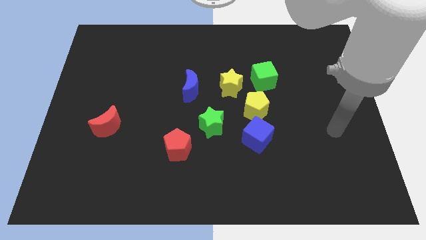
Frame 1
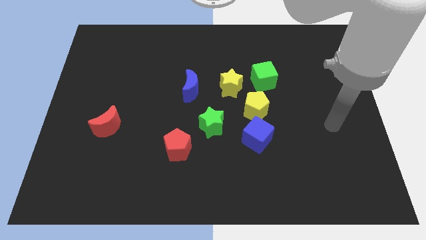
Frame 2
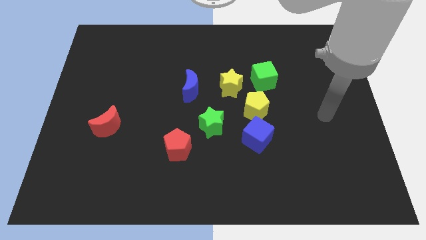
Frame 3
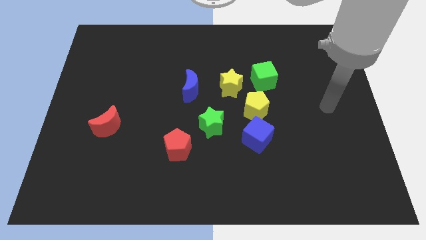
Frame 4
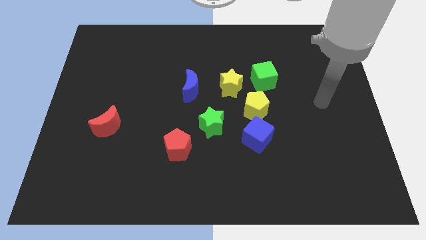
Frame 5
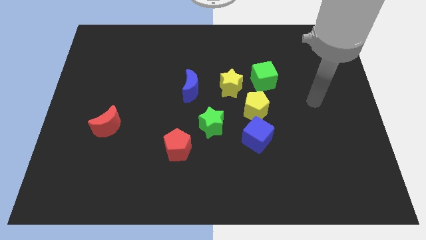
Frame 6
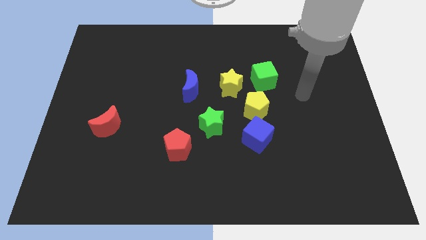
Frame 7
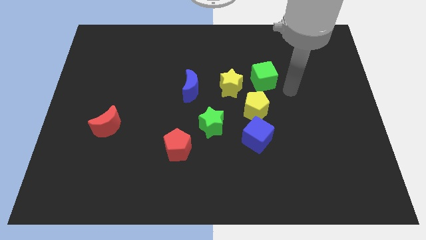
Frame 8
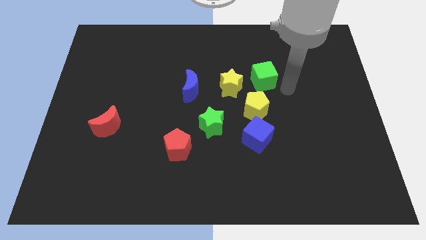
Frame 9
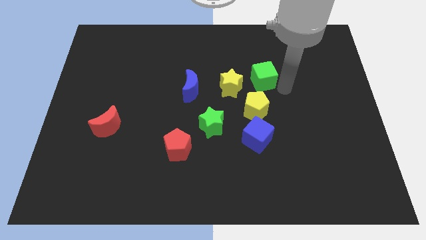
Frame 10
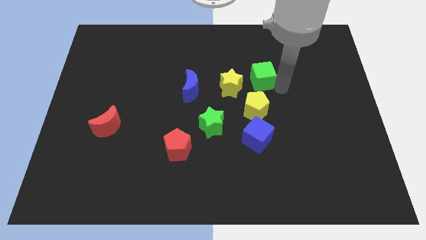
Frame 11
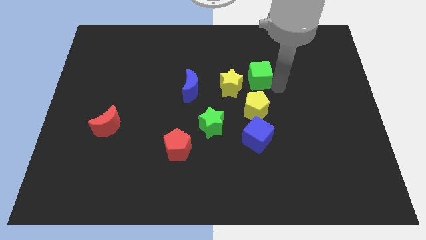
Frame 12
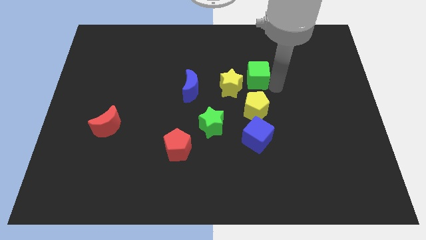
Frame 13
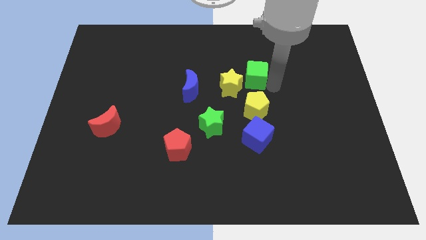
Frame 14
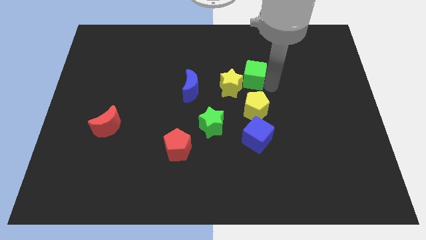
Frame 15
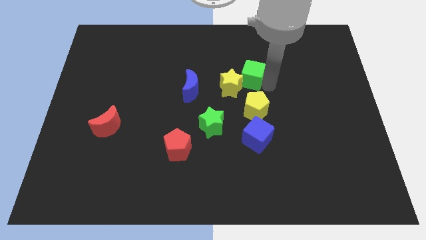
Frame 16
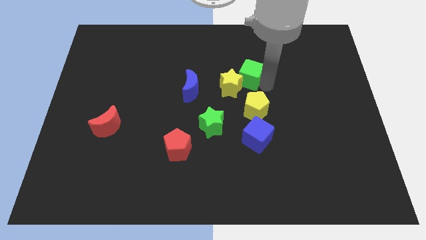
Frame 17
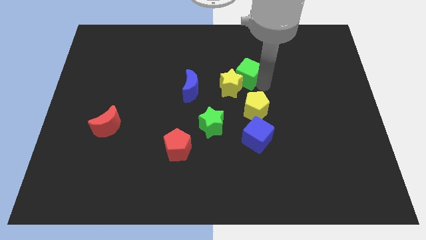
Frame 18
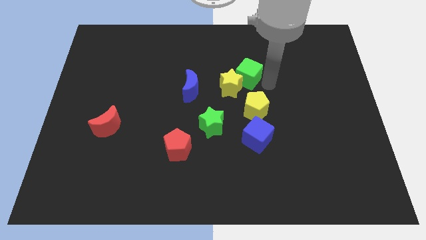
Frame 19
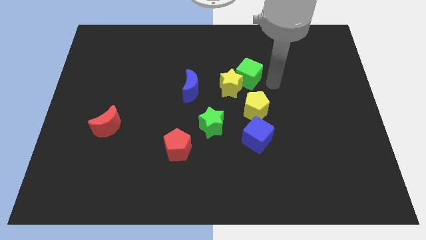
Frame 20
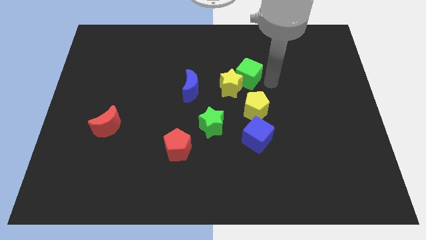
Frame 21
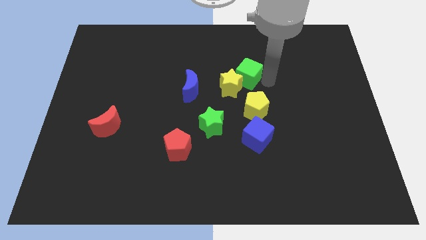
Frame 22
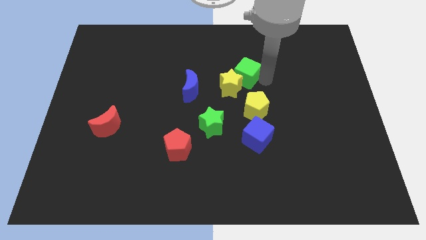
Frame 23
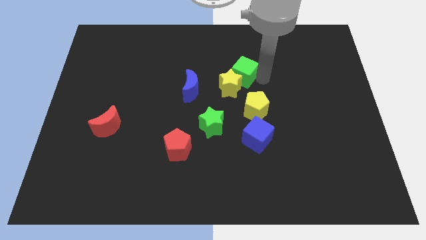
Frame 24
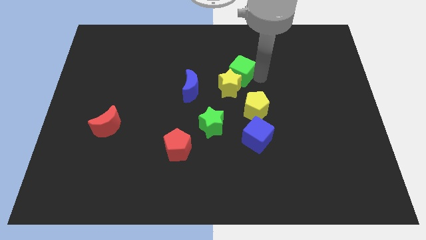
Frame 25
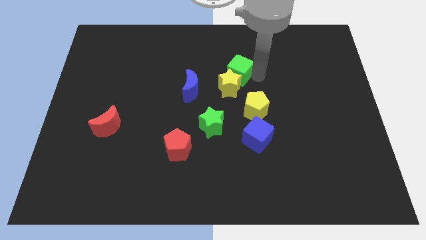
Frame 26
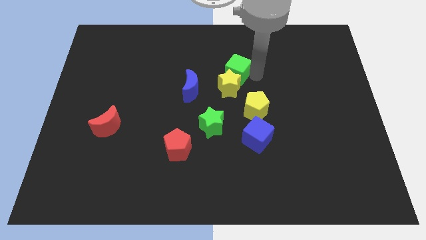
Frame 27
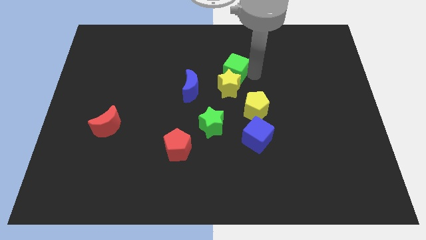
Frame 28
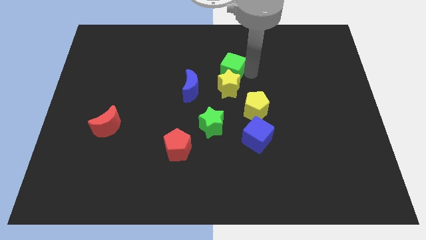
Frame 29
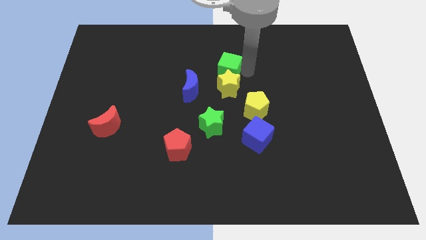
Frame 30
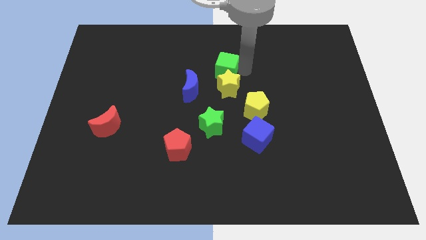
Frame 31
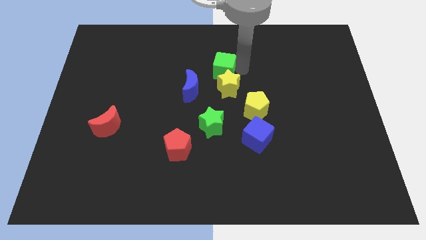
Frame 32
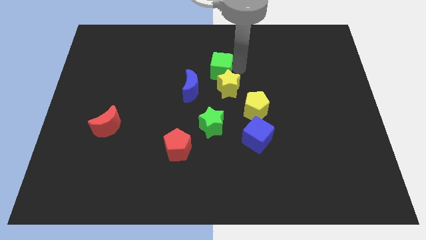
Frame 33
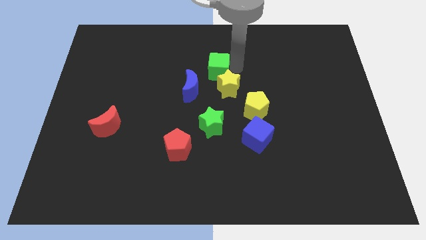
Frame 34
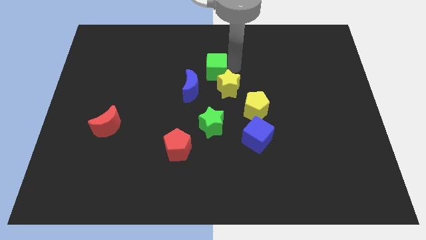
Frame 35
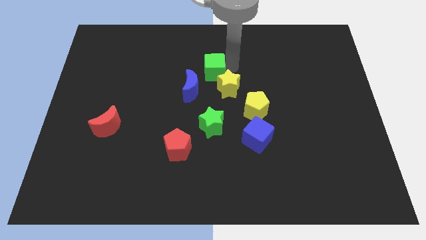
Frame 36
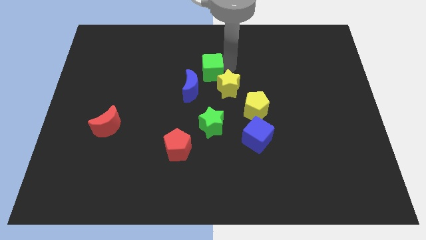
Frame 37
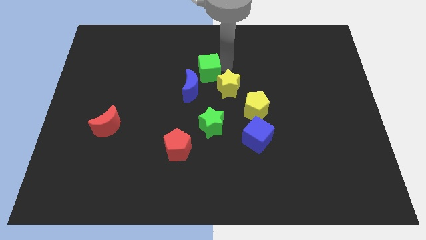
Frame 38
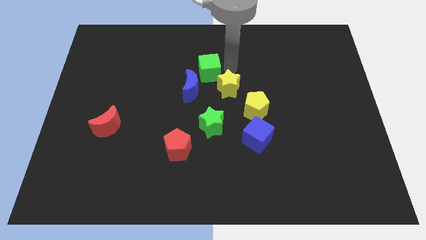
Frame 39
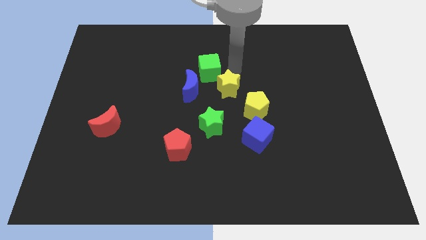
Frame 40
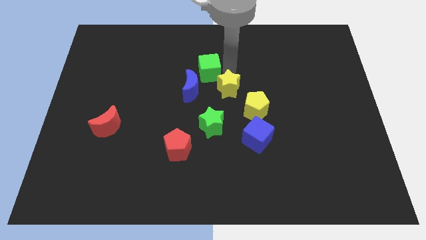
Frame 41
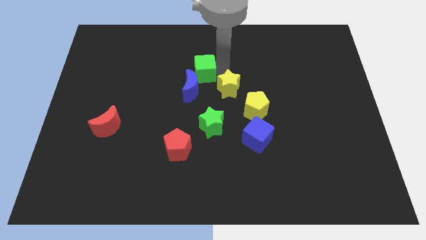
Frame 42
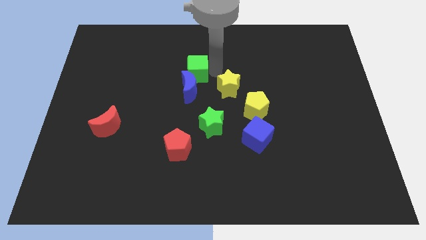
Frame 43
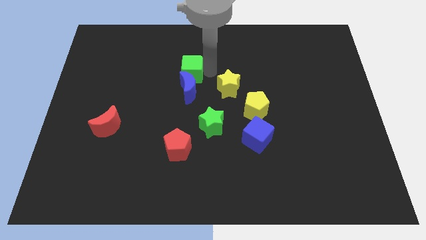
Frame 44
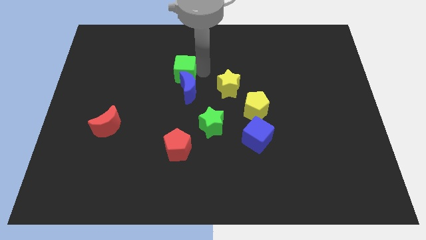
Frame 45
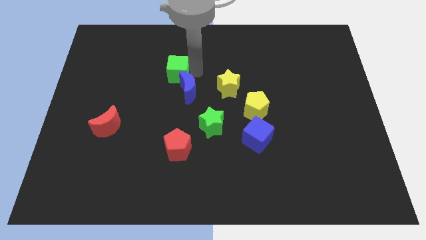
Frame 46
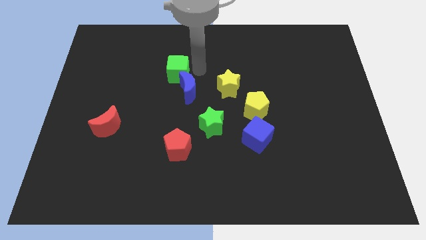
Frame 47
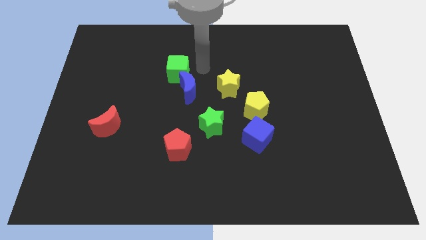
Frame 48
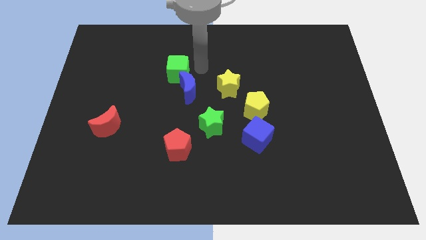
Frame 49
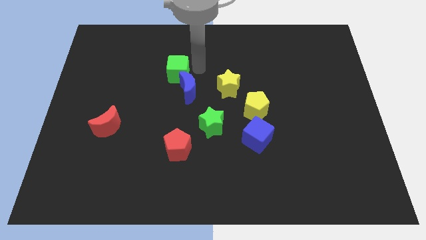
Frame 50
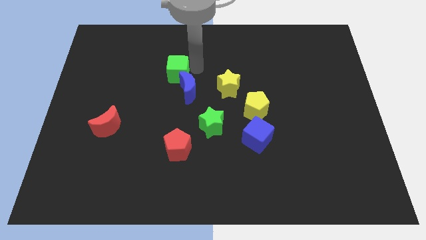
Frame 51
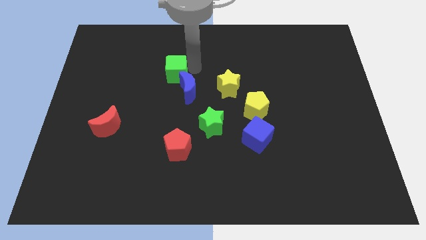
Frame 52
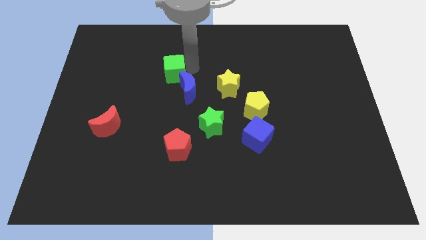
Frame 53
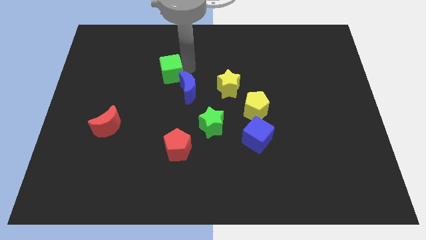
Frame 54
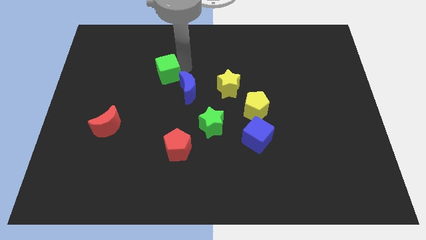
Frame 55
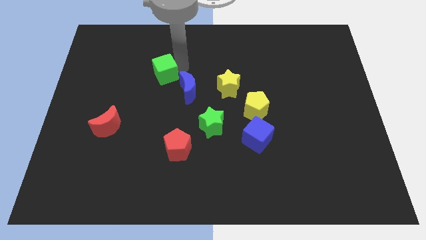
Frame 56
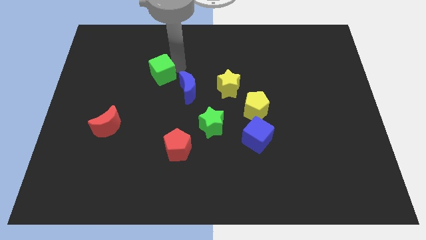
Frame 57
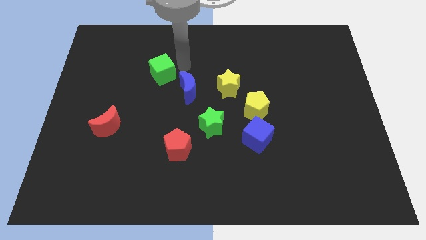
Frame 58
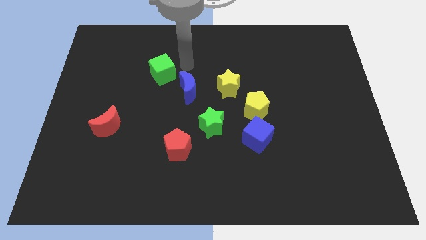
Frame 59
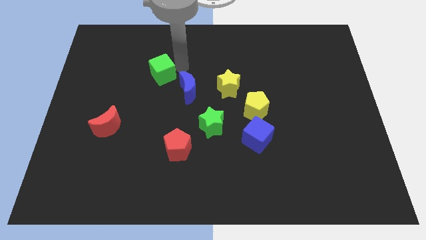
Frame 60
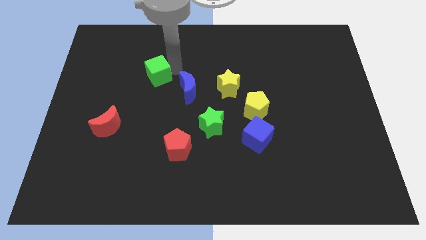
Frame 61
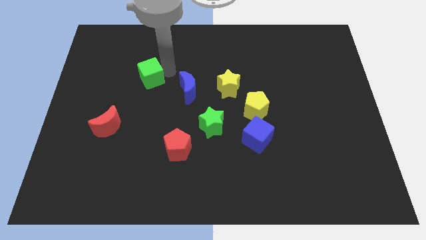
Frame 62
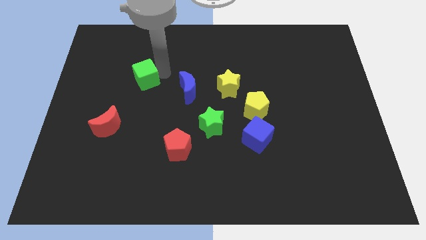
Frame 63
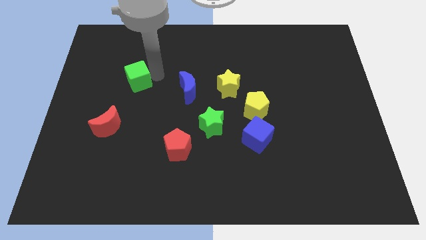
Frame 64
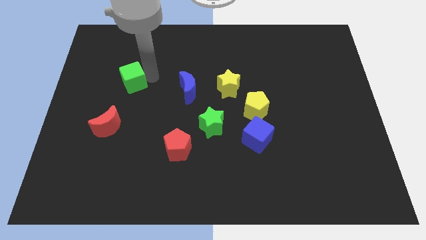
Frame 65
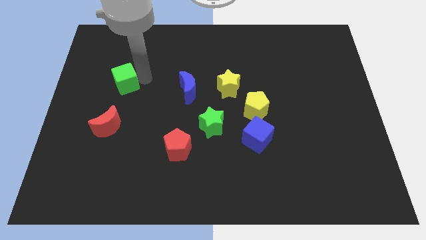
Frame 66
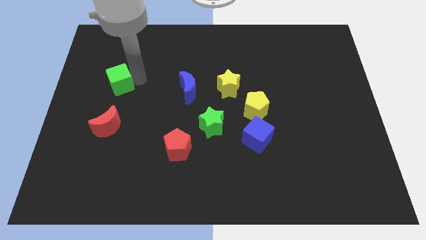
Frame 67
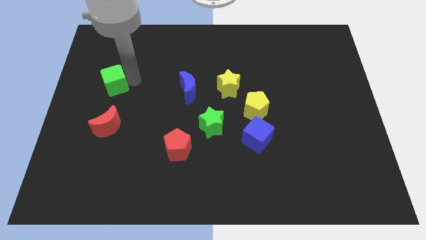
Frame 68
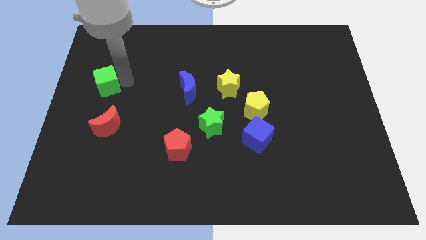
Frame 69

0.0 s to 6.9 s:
slide the green cube to the left side of the board
